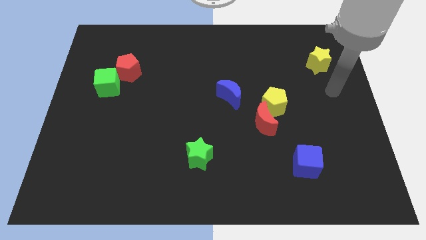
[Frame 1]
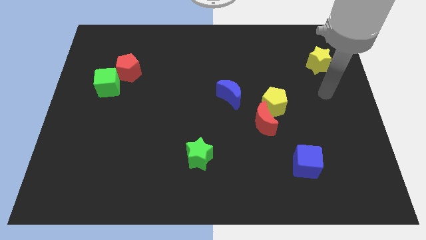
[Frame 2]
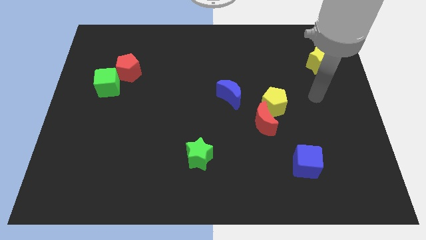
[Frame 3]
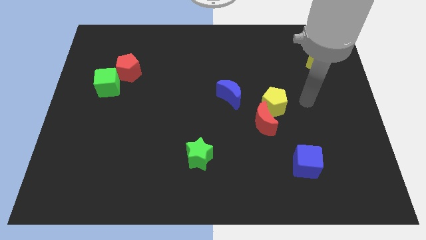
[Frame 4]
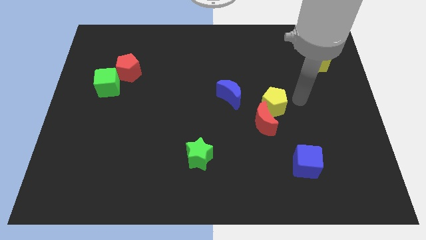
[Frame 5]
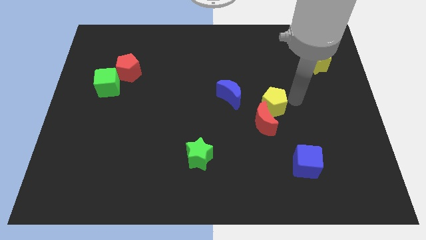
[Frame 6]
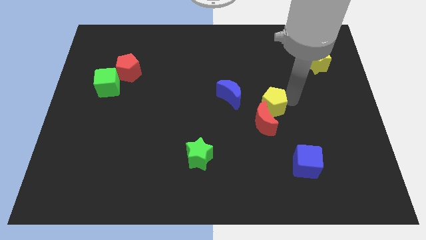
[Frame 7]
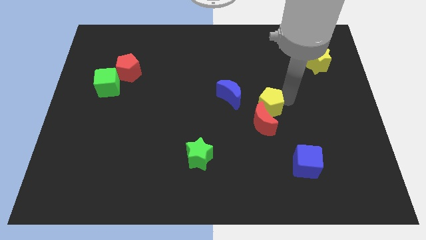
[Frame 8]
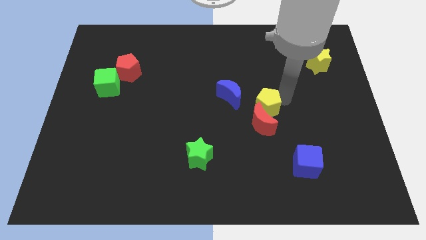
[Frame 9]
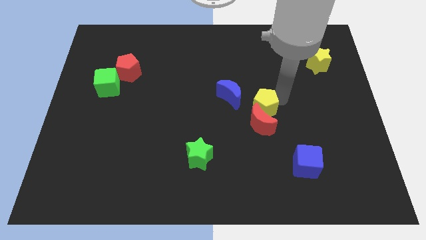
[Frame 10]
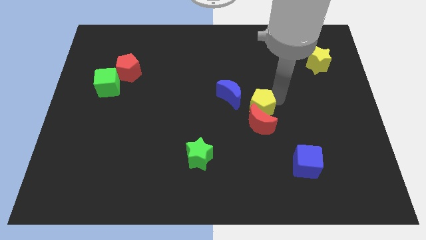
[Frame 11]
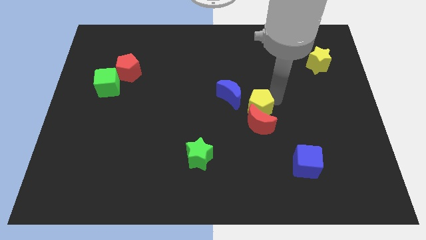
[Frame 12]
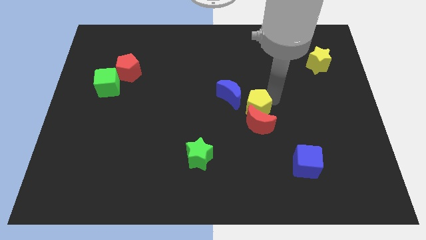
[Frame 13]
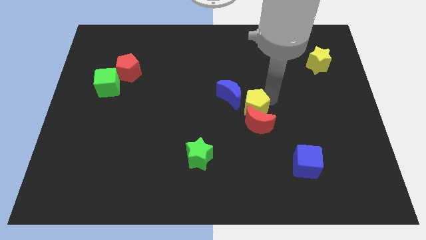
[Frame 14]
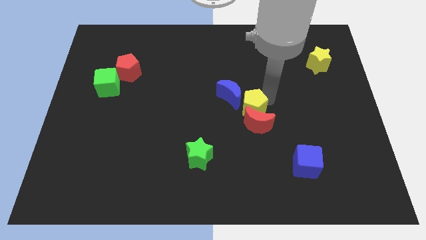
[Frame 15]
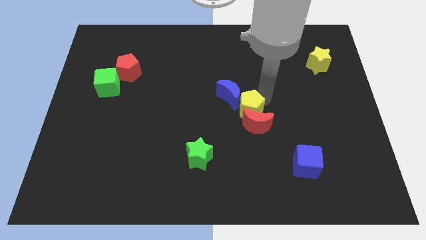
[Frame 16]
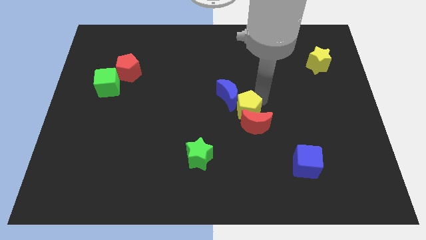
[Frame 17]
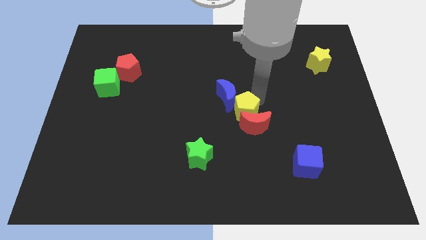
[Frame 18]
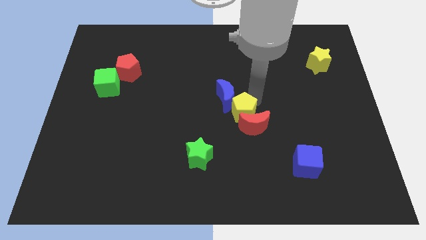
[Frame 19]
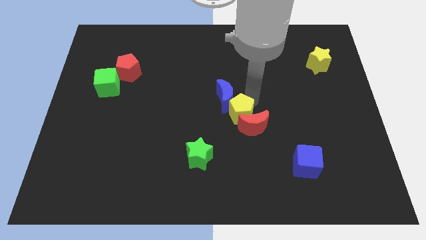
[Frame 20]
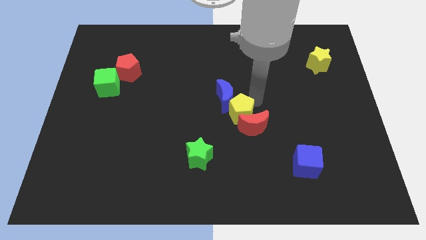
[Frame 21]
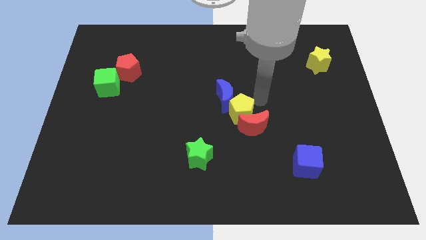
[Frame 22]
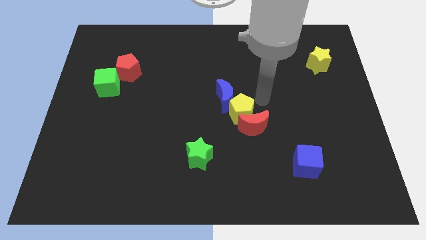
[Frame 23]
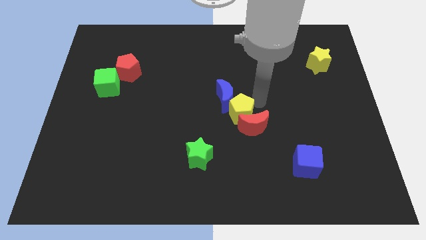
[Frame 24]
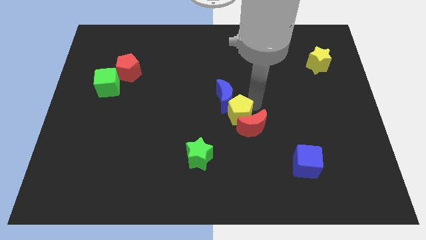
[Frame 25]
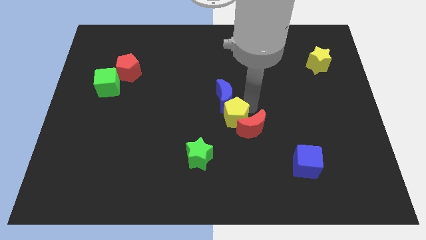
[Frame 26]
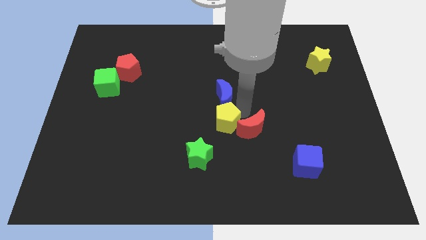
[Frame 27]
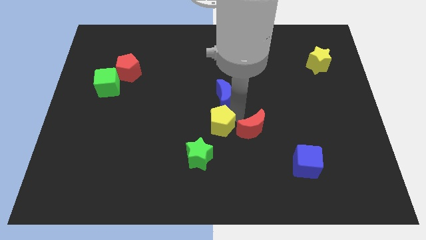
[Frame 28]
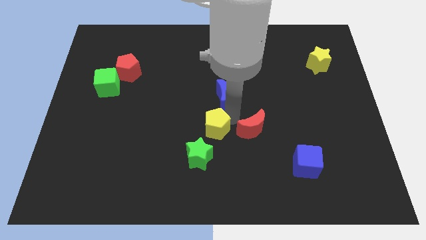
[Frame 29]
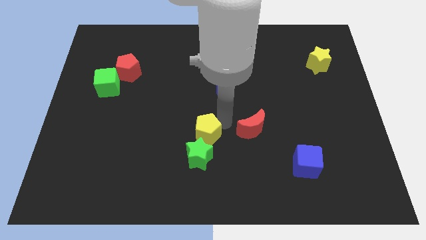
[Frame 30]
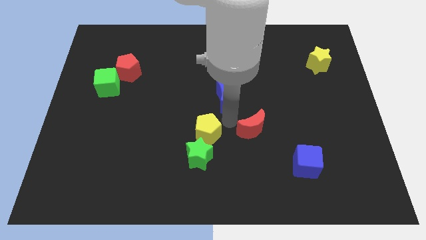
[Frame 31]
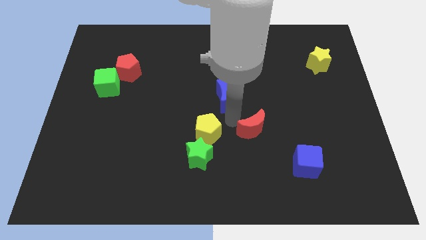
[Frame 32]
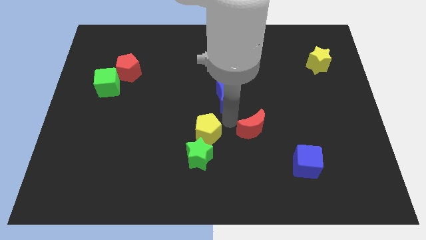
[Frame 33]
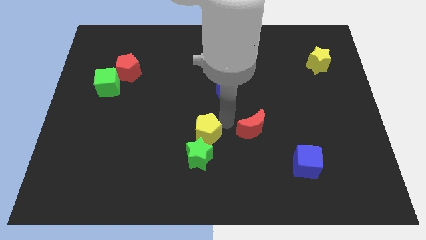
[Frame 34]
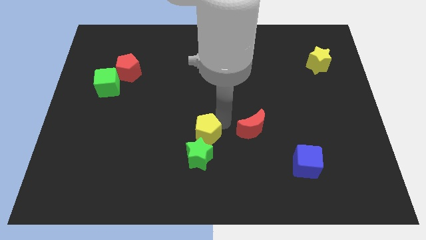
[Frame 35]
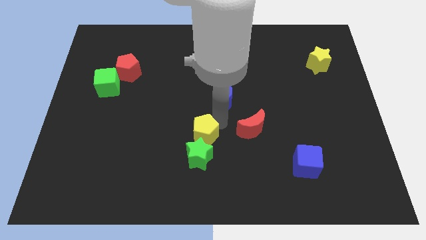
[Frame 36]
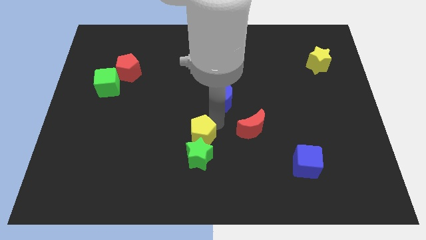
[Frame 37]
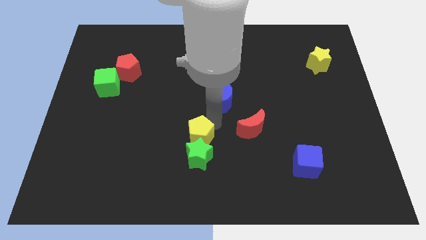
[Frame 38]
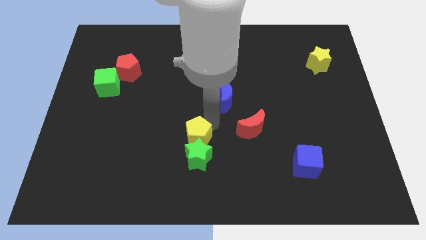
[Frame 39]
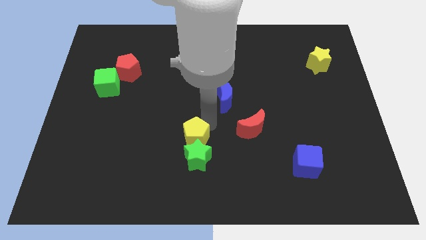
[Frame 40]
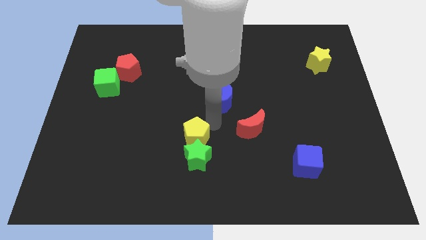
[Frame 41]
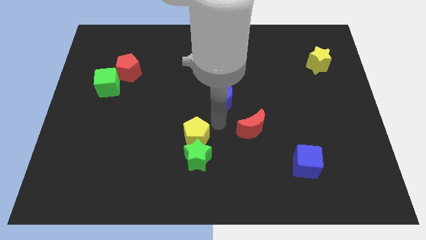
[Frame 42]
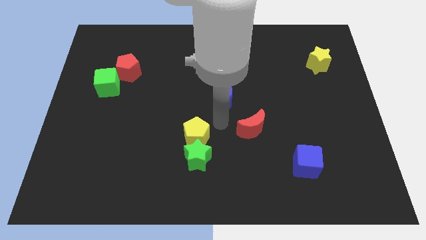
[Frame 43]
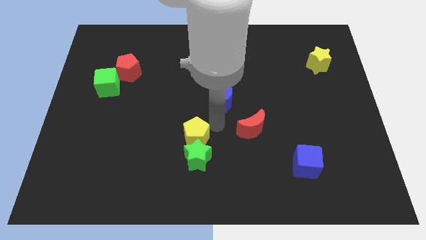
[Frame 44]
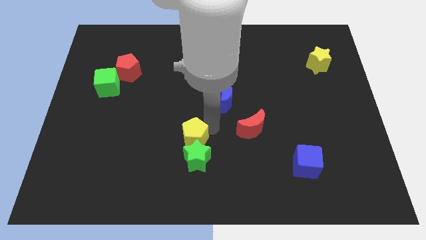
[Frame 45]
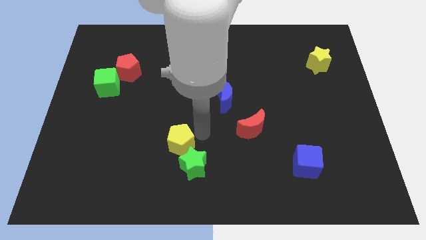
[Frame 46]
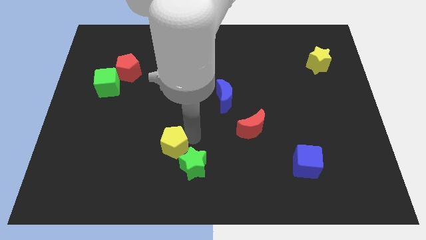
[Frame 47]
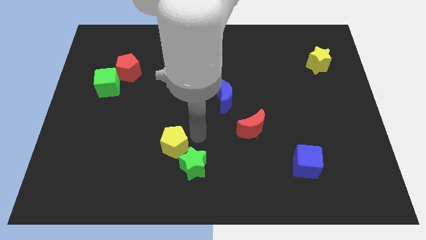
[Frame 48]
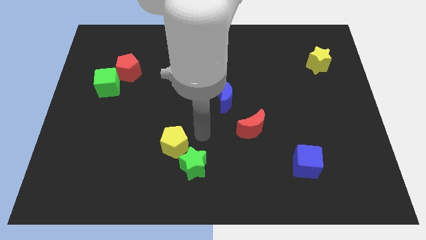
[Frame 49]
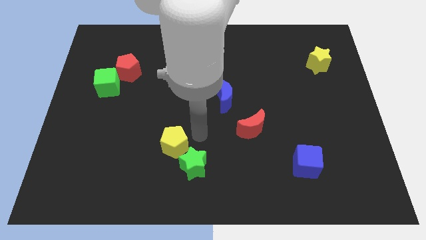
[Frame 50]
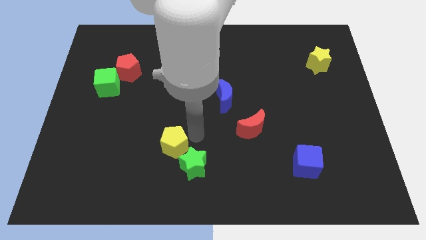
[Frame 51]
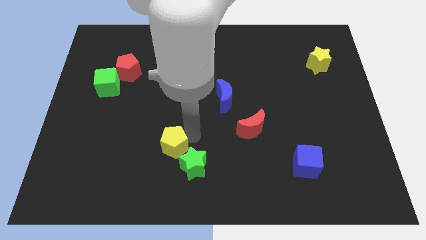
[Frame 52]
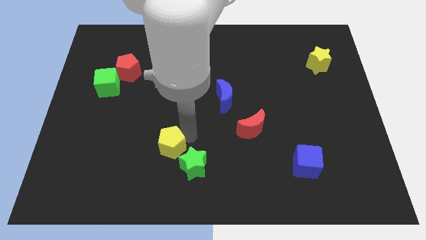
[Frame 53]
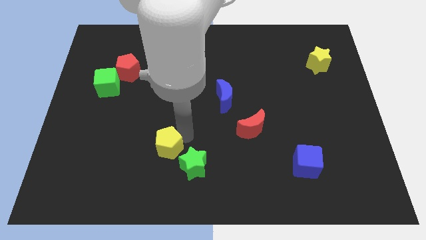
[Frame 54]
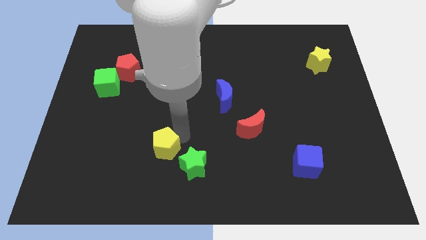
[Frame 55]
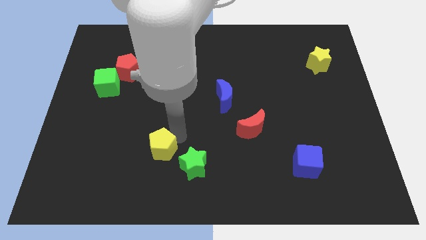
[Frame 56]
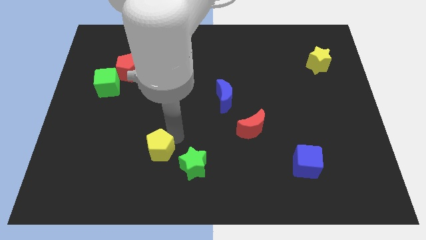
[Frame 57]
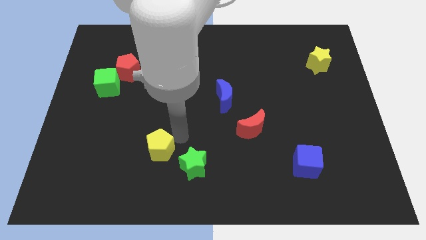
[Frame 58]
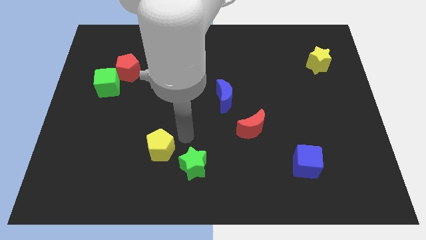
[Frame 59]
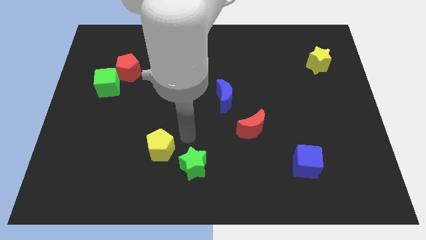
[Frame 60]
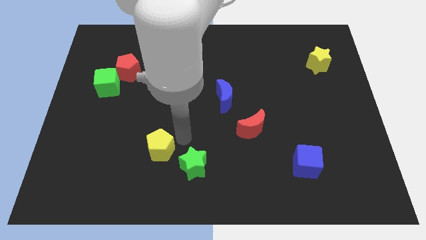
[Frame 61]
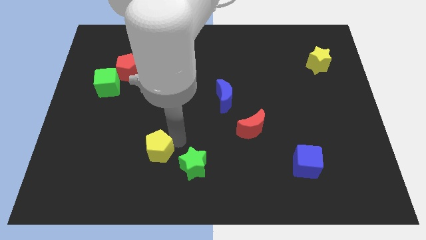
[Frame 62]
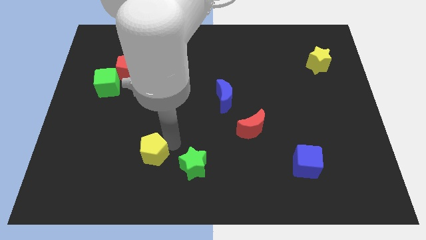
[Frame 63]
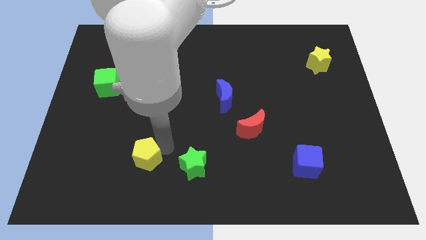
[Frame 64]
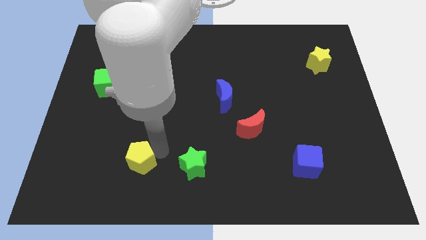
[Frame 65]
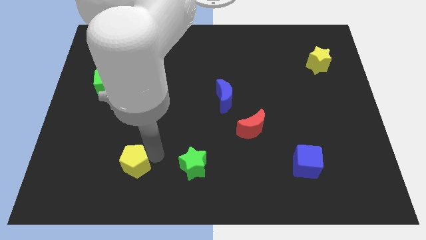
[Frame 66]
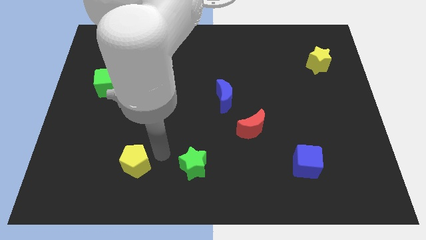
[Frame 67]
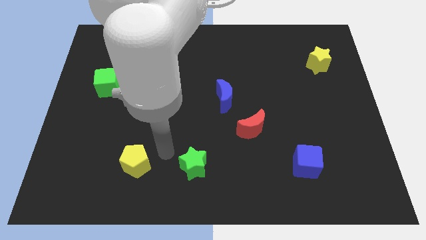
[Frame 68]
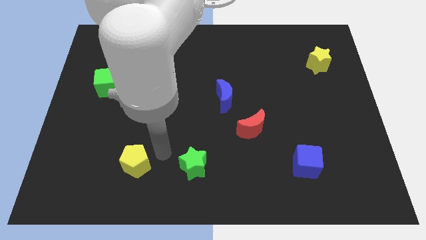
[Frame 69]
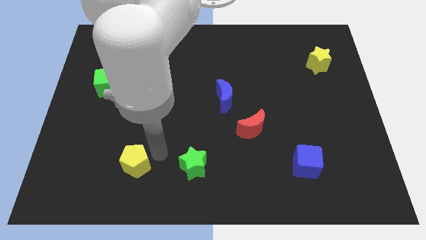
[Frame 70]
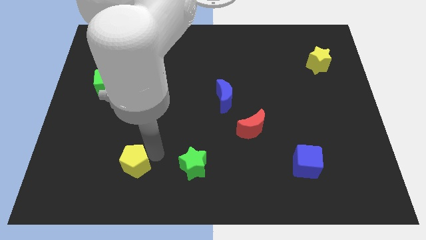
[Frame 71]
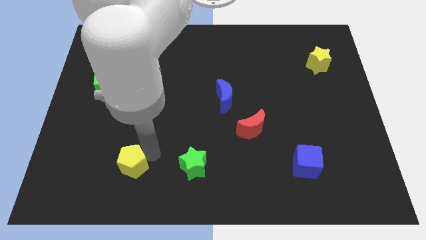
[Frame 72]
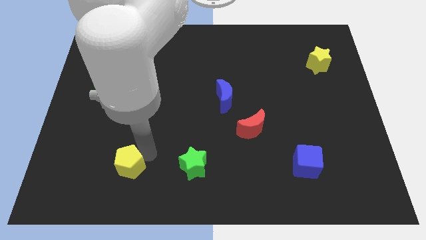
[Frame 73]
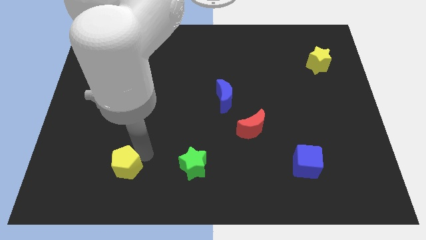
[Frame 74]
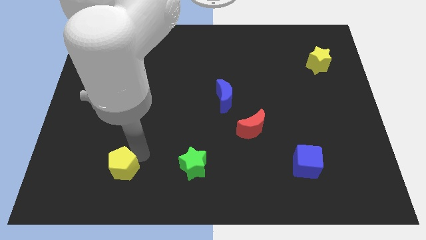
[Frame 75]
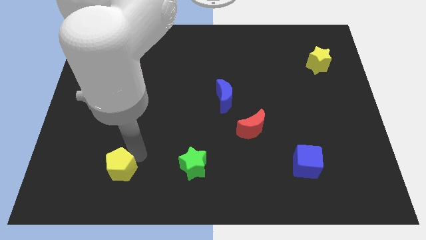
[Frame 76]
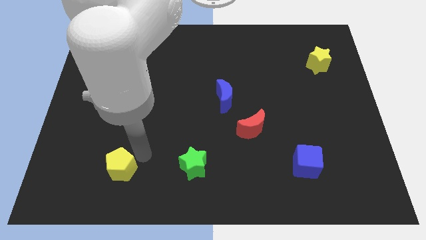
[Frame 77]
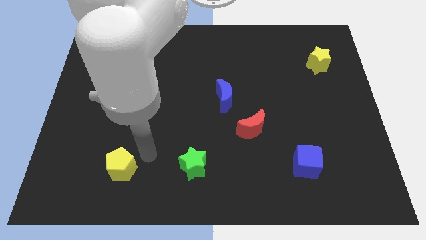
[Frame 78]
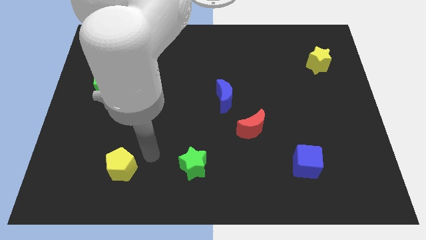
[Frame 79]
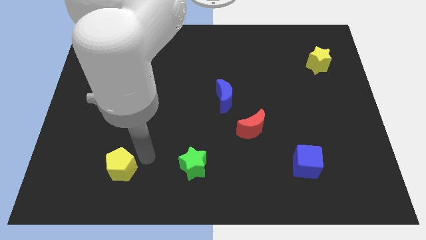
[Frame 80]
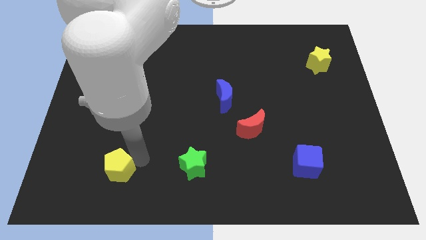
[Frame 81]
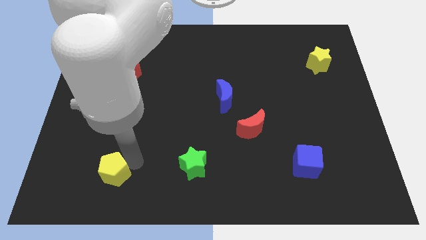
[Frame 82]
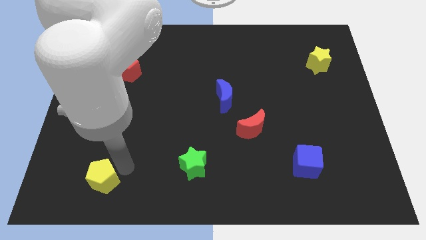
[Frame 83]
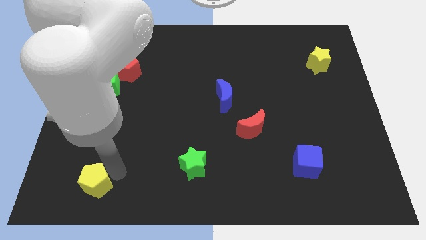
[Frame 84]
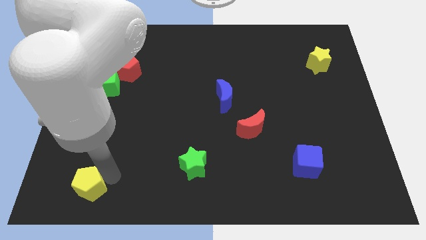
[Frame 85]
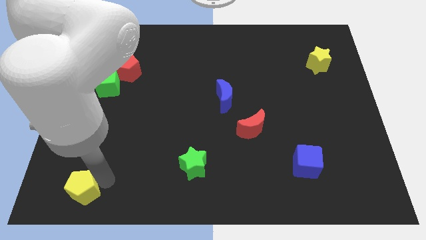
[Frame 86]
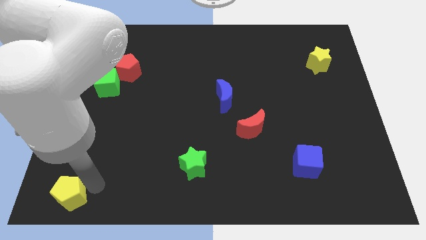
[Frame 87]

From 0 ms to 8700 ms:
push the yellow pentagon to the bottom left corner
